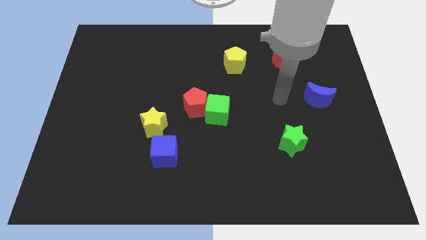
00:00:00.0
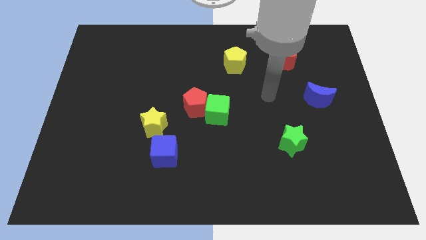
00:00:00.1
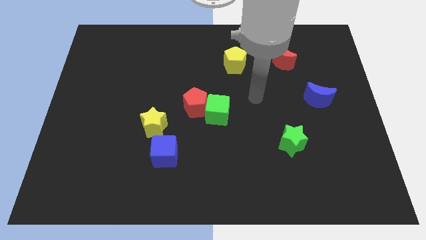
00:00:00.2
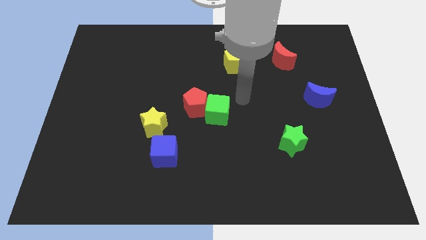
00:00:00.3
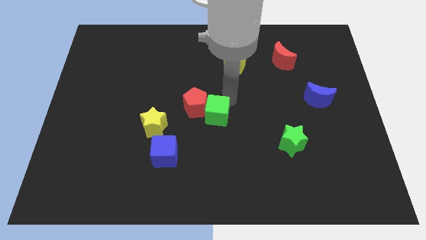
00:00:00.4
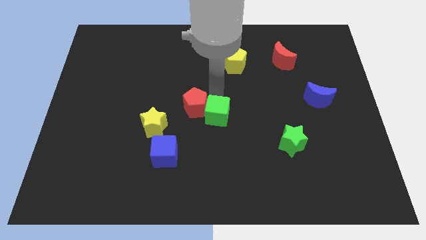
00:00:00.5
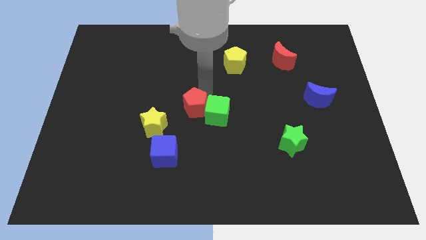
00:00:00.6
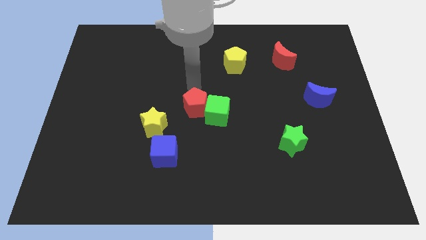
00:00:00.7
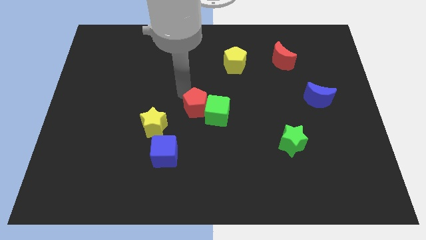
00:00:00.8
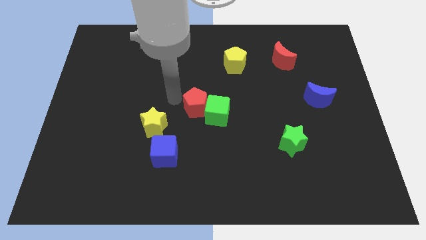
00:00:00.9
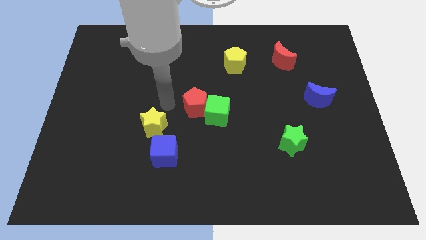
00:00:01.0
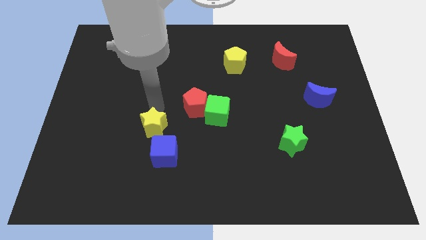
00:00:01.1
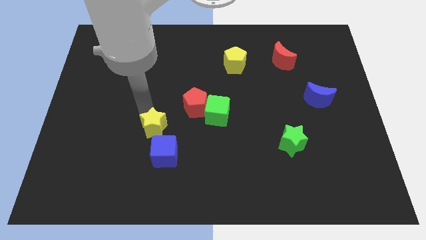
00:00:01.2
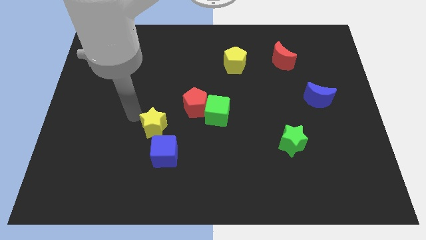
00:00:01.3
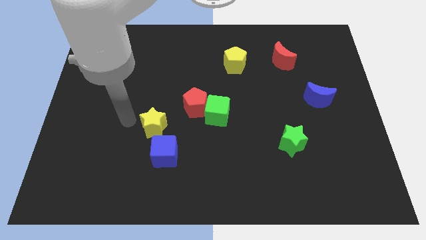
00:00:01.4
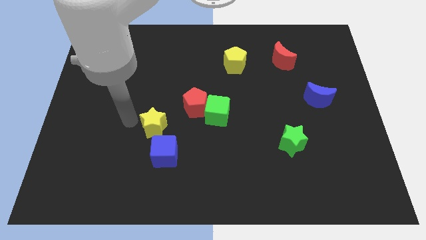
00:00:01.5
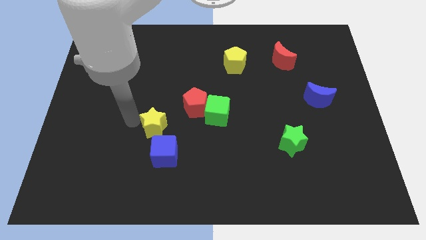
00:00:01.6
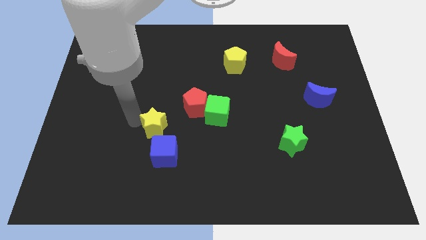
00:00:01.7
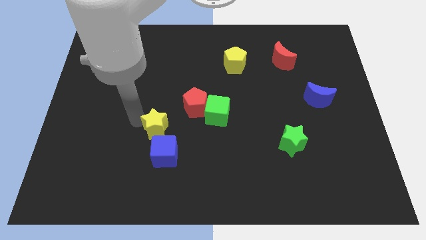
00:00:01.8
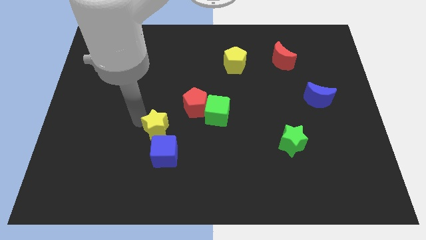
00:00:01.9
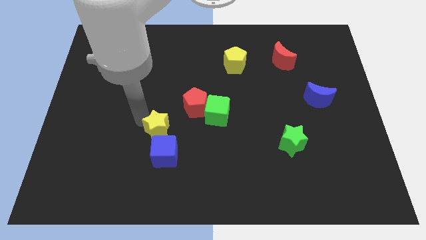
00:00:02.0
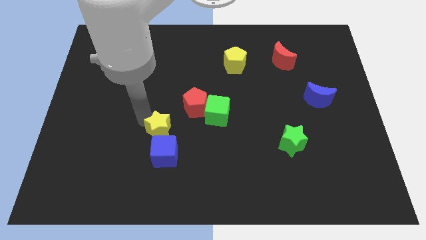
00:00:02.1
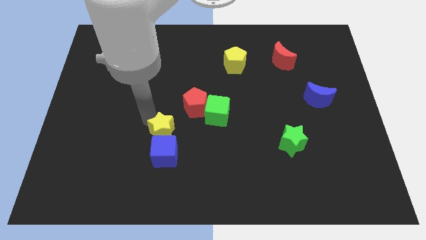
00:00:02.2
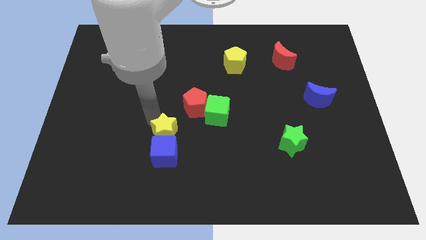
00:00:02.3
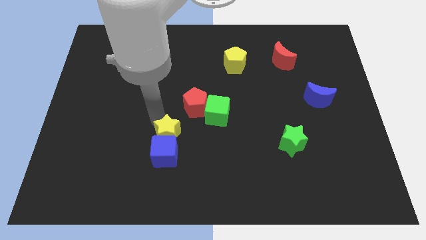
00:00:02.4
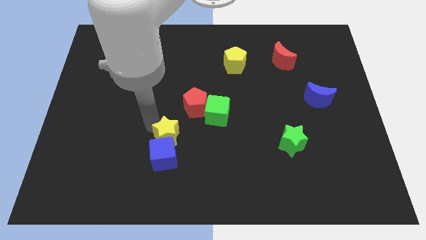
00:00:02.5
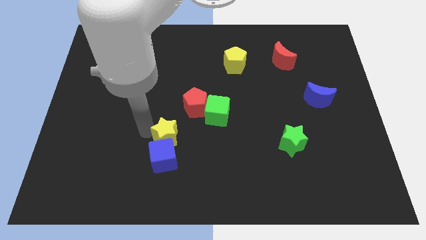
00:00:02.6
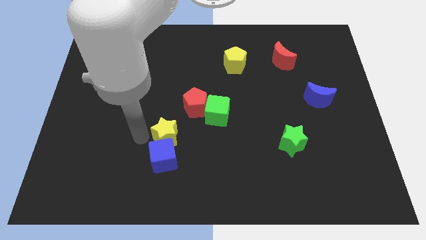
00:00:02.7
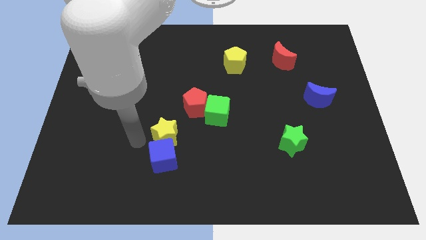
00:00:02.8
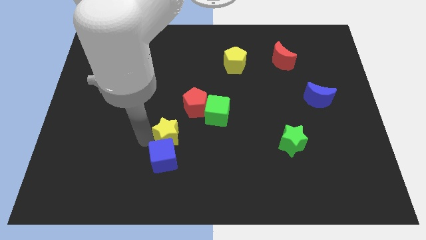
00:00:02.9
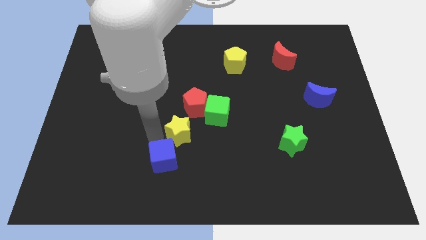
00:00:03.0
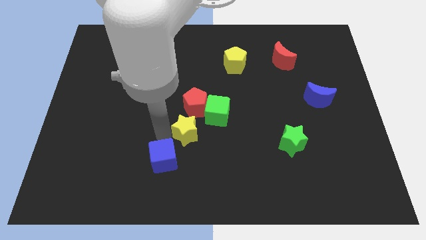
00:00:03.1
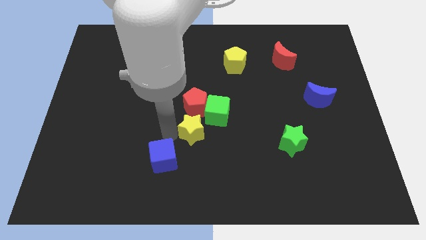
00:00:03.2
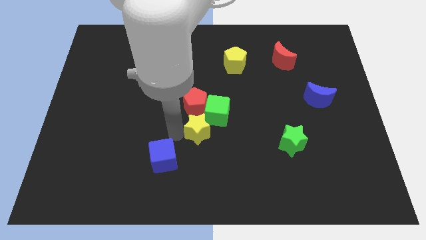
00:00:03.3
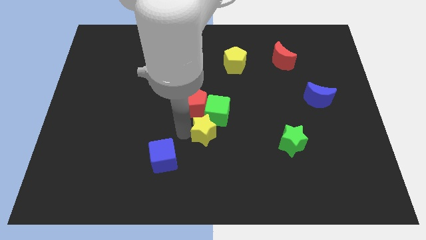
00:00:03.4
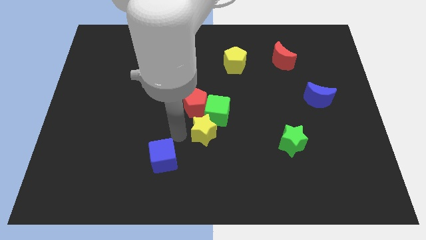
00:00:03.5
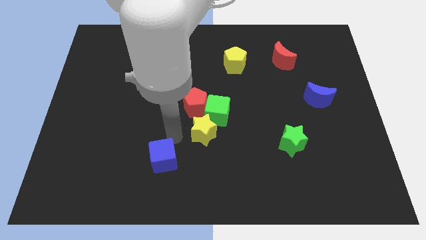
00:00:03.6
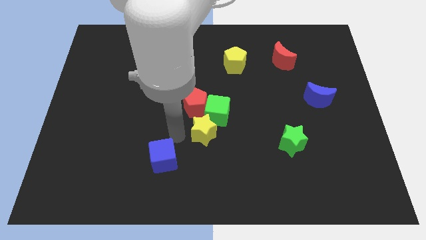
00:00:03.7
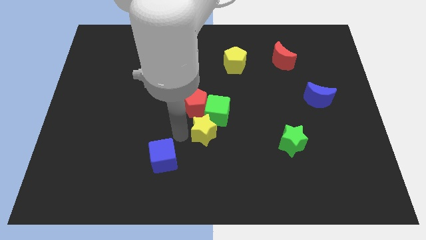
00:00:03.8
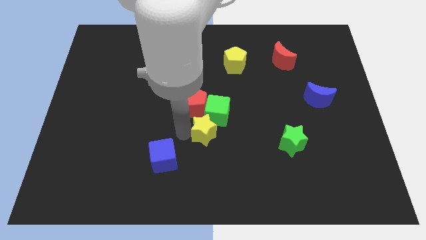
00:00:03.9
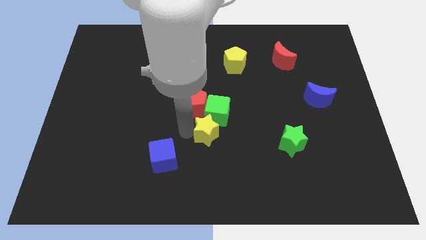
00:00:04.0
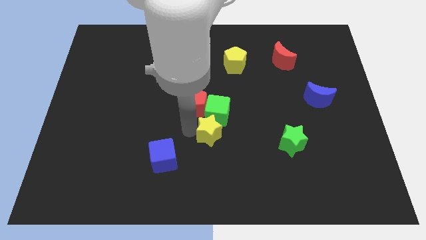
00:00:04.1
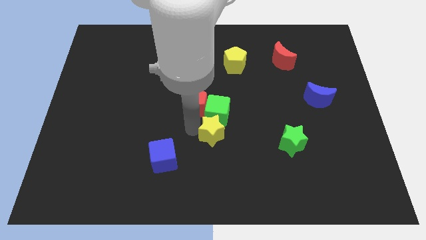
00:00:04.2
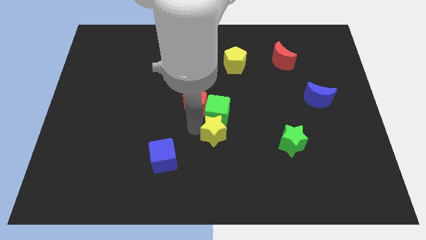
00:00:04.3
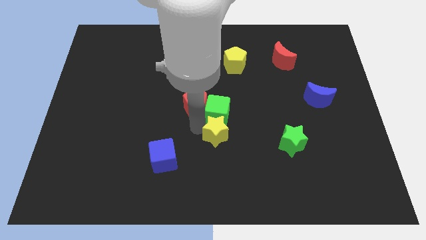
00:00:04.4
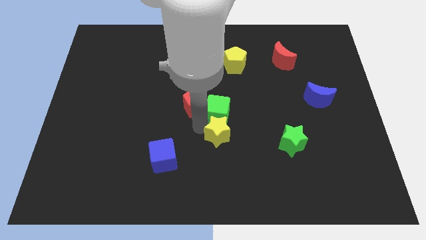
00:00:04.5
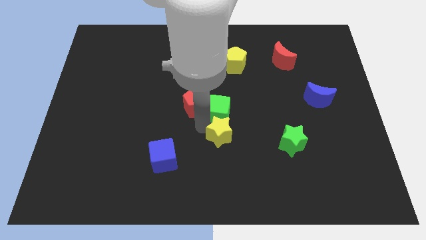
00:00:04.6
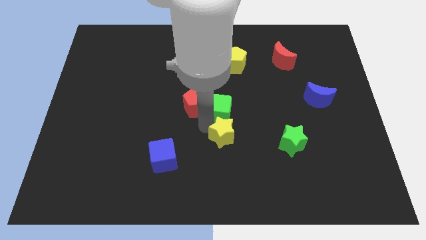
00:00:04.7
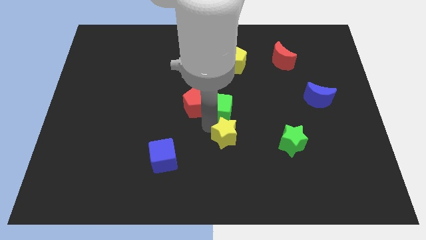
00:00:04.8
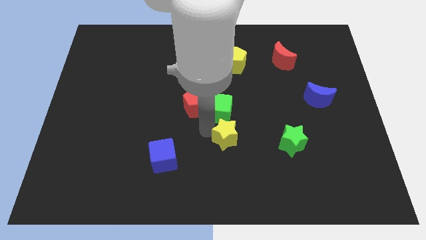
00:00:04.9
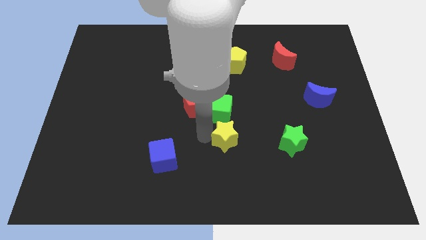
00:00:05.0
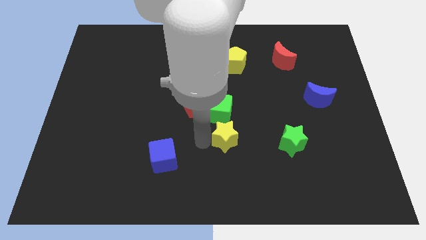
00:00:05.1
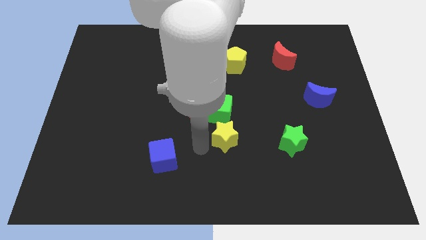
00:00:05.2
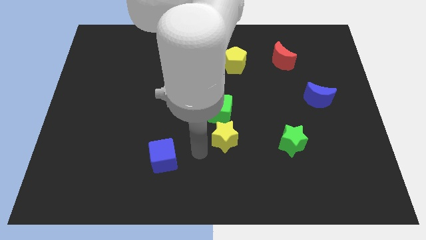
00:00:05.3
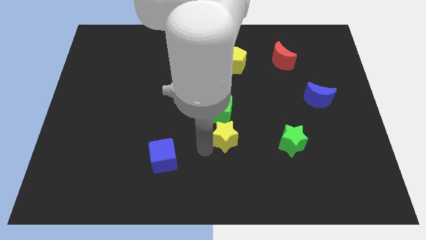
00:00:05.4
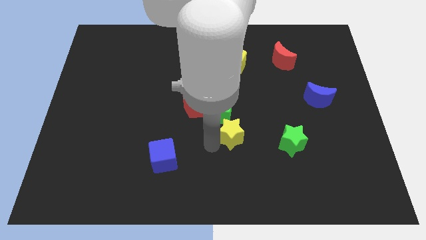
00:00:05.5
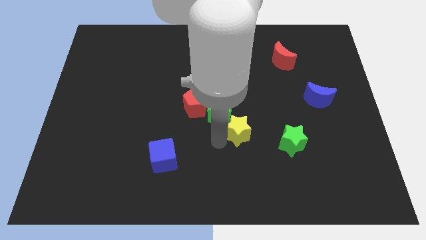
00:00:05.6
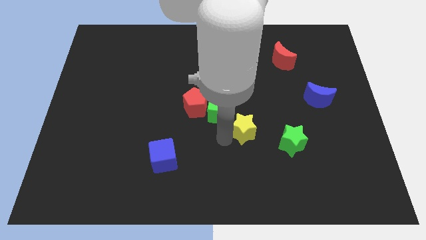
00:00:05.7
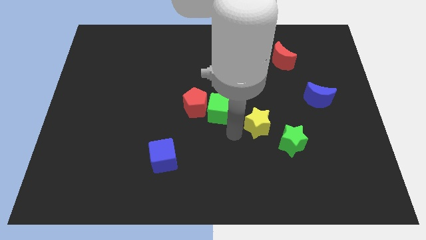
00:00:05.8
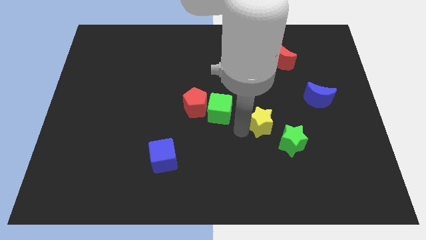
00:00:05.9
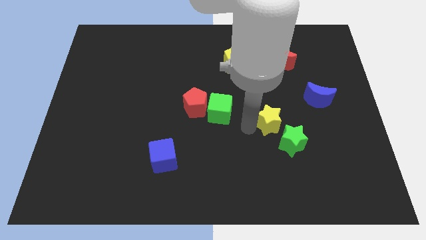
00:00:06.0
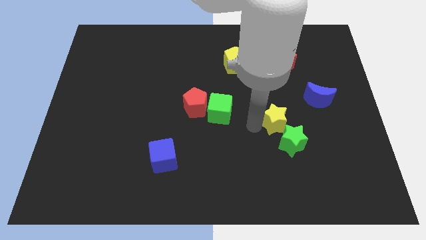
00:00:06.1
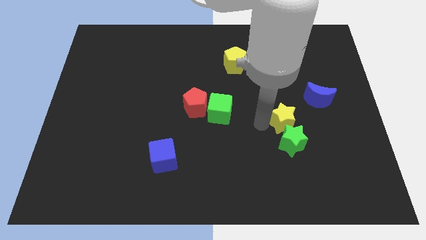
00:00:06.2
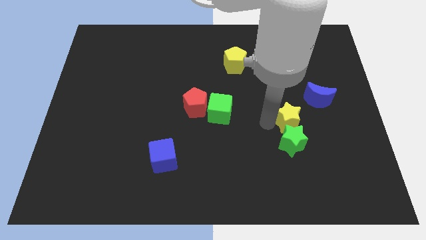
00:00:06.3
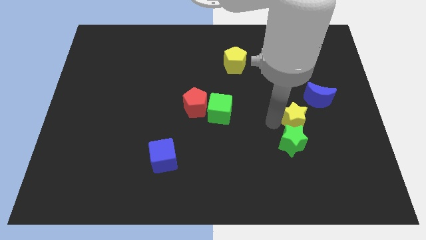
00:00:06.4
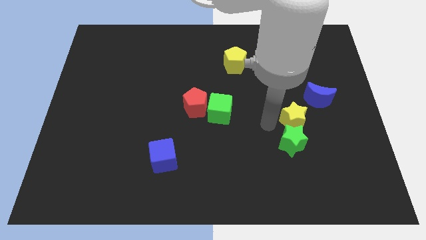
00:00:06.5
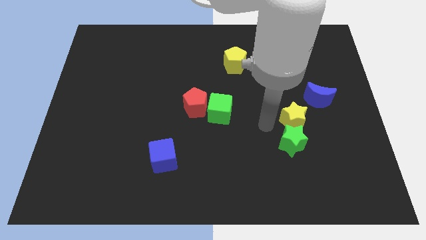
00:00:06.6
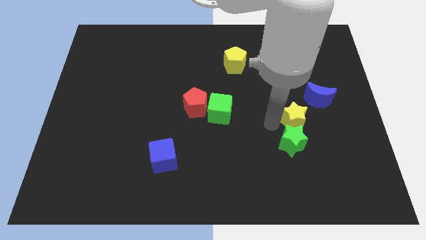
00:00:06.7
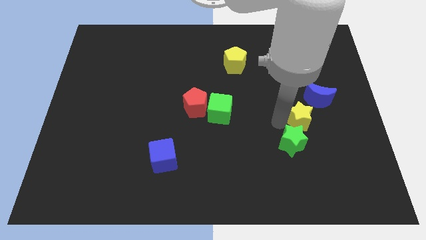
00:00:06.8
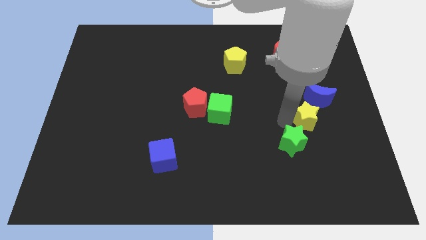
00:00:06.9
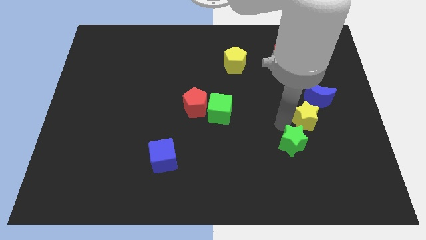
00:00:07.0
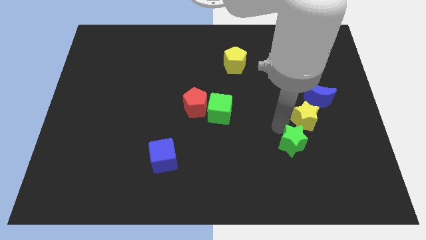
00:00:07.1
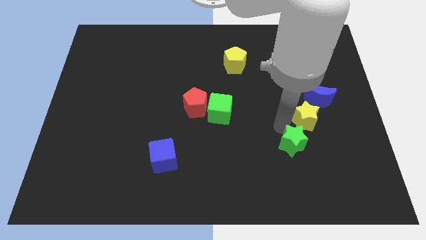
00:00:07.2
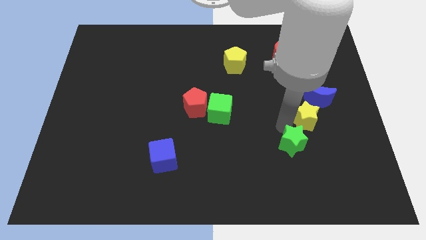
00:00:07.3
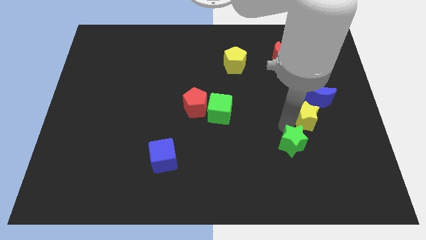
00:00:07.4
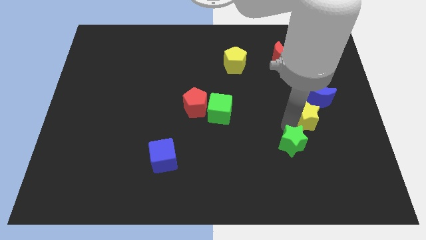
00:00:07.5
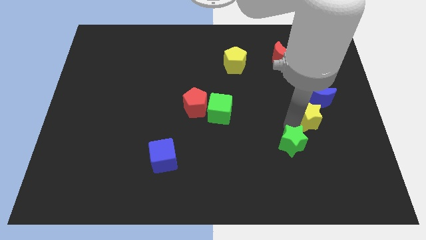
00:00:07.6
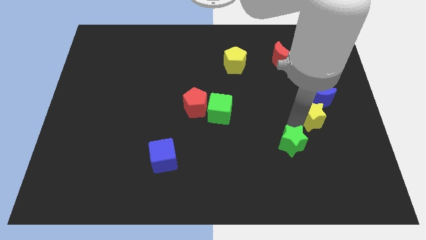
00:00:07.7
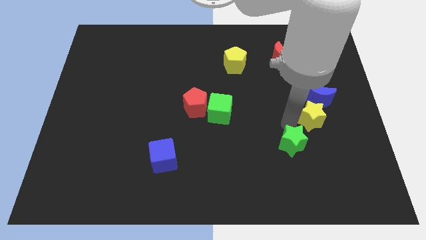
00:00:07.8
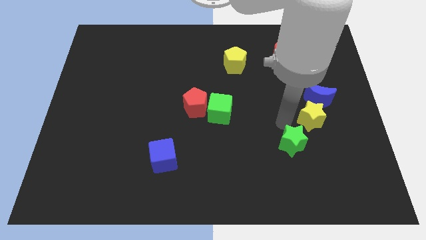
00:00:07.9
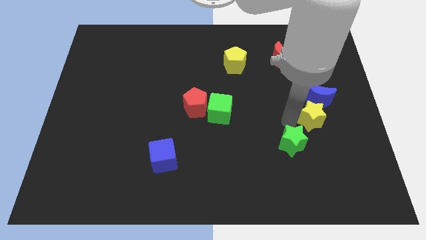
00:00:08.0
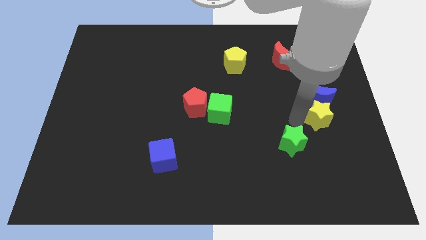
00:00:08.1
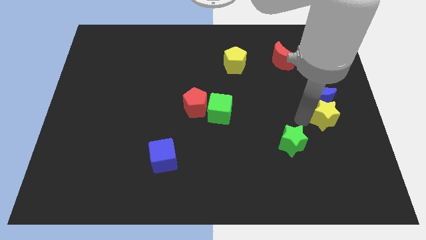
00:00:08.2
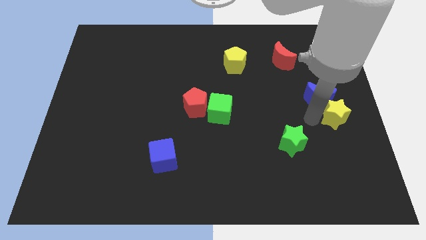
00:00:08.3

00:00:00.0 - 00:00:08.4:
move the yellow star to the center right
